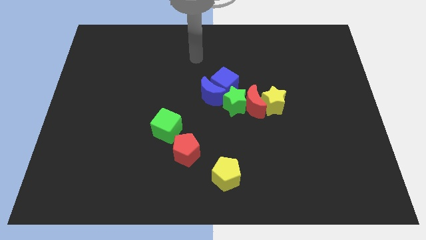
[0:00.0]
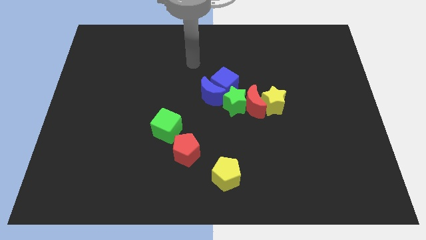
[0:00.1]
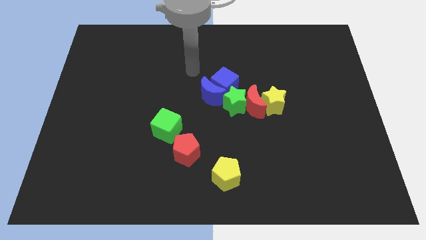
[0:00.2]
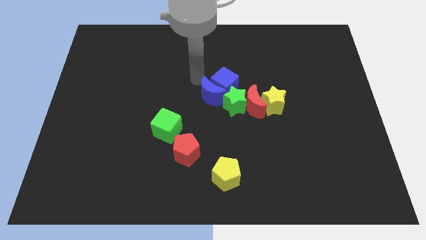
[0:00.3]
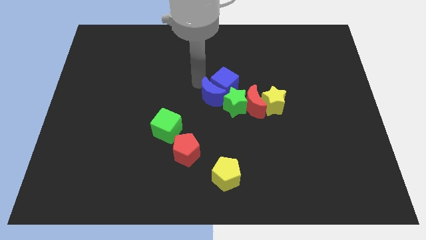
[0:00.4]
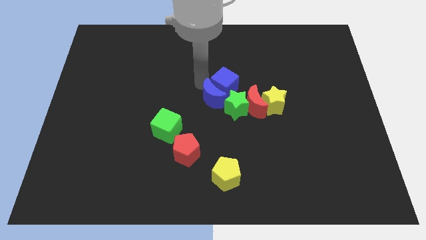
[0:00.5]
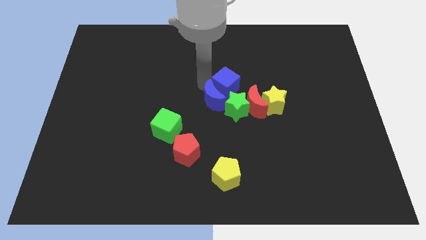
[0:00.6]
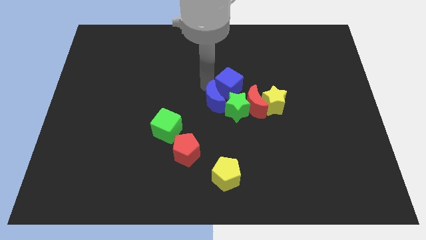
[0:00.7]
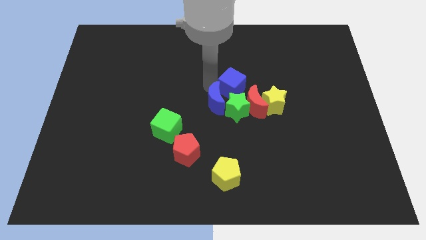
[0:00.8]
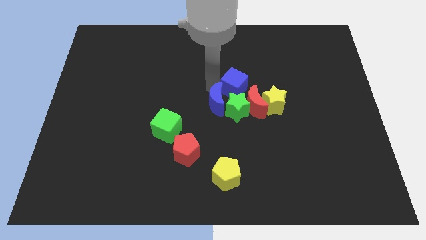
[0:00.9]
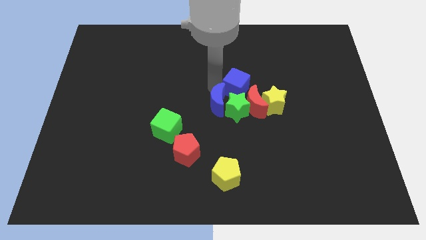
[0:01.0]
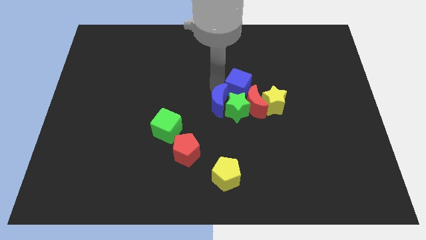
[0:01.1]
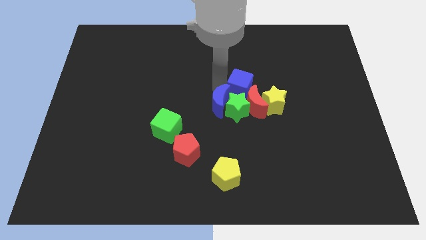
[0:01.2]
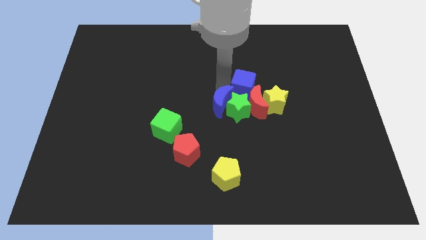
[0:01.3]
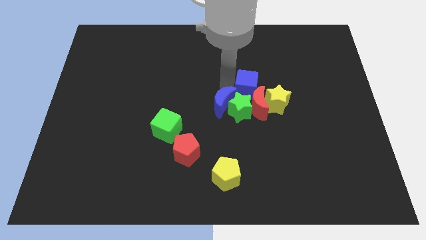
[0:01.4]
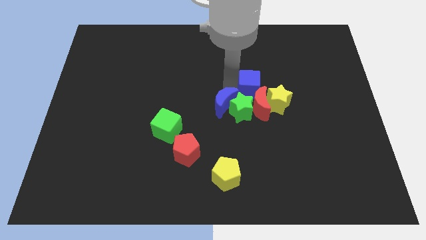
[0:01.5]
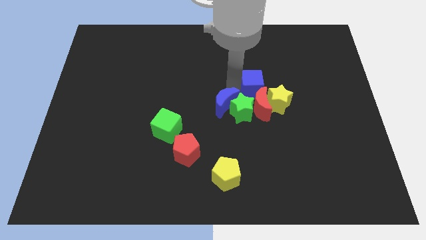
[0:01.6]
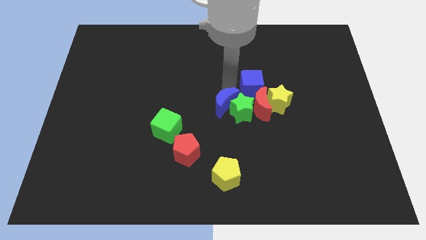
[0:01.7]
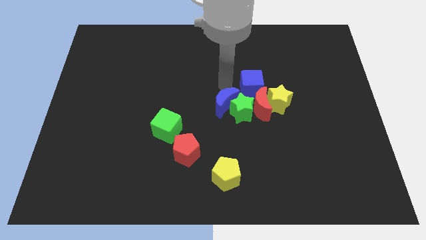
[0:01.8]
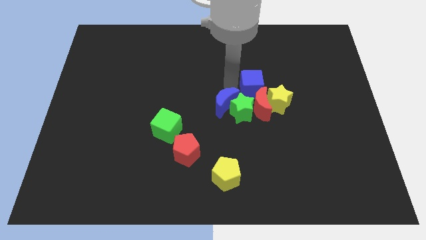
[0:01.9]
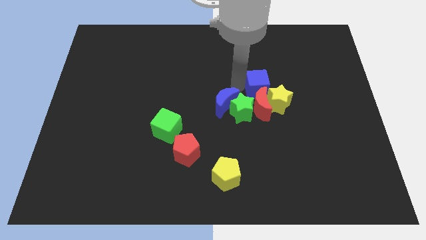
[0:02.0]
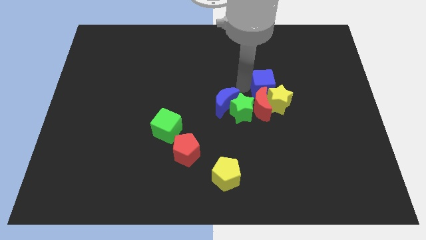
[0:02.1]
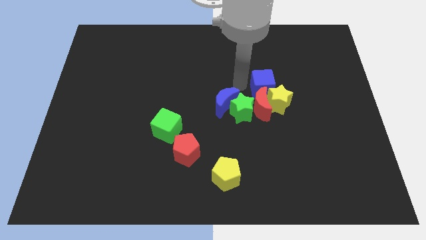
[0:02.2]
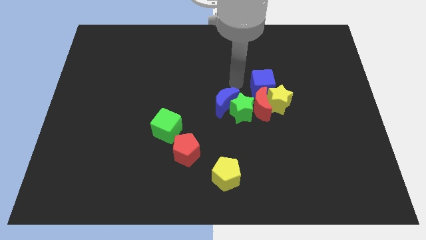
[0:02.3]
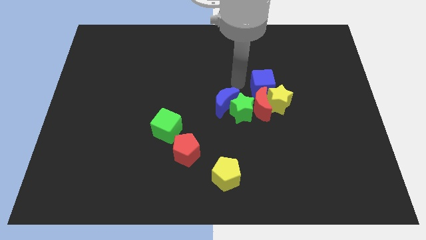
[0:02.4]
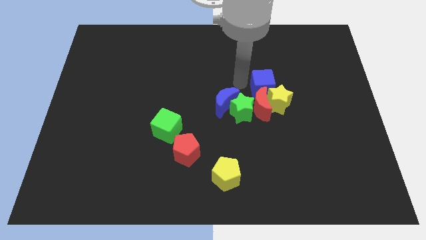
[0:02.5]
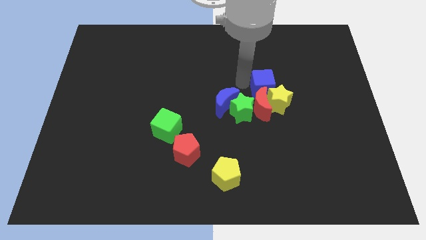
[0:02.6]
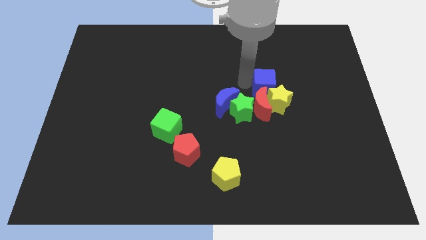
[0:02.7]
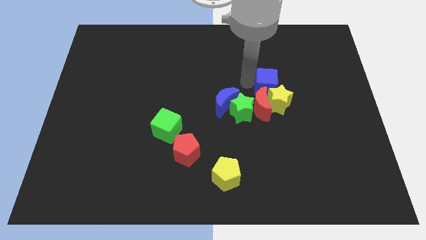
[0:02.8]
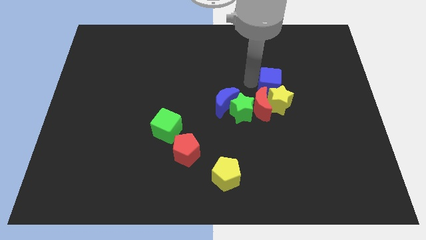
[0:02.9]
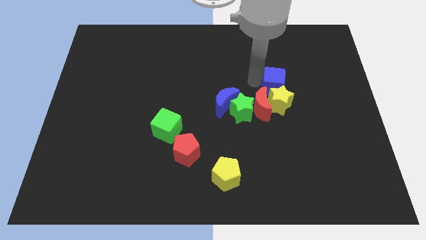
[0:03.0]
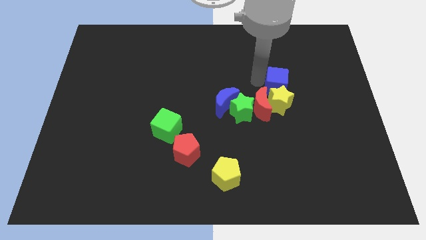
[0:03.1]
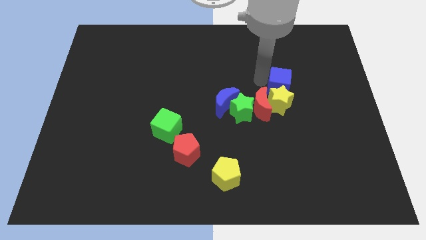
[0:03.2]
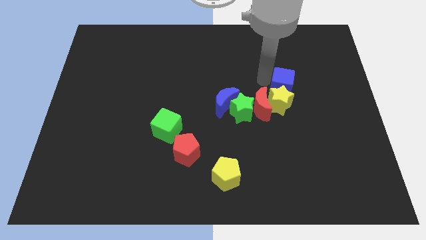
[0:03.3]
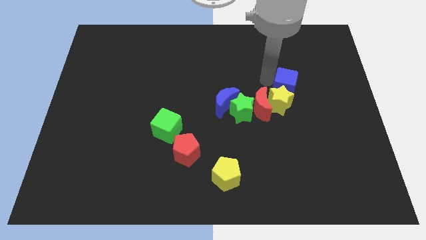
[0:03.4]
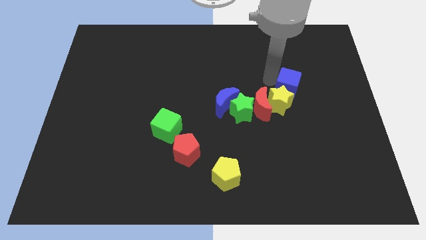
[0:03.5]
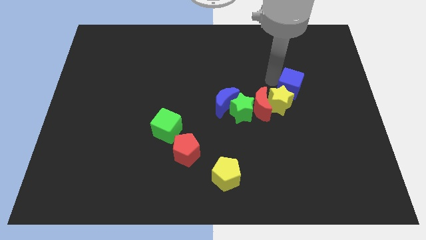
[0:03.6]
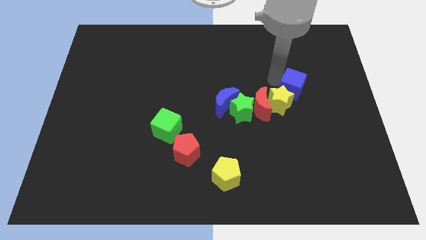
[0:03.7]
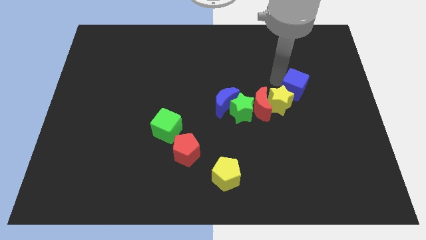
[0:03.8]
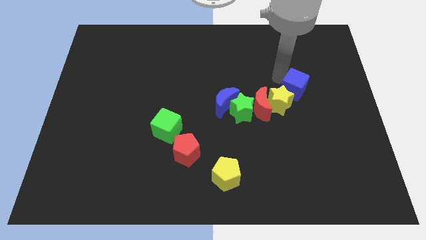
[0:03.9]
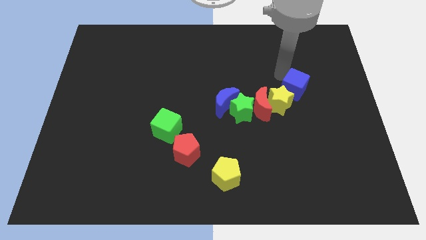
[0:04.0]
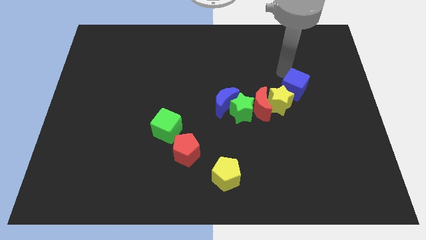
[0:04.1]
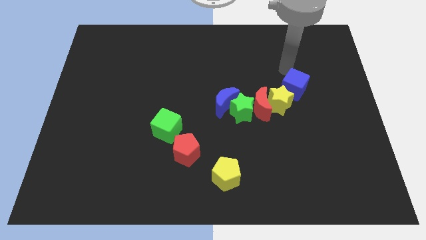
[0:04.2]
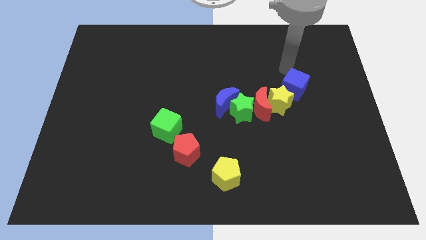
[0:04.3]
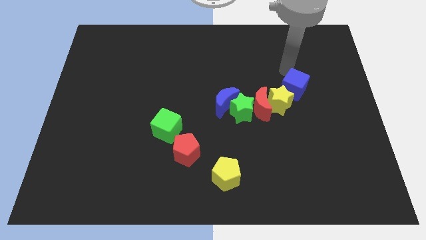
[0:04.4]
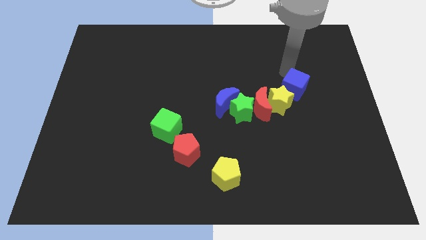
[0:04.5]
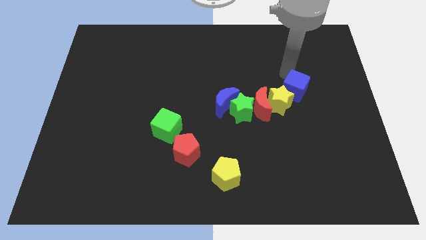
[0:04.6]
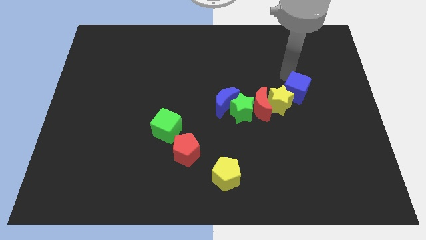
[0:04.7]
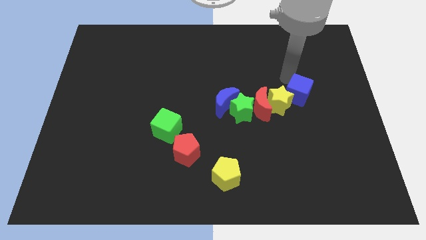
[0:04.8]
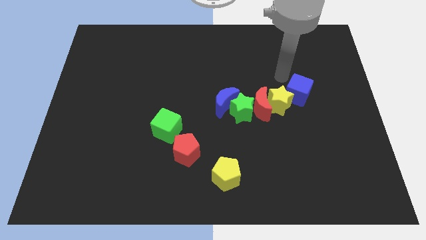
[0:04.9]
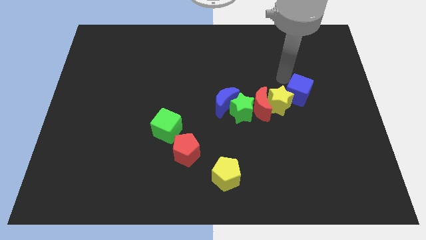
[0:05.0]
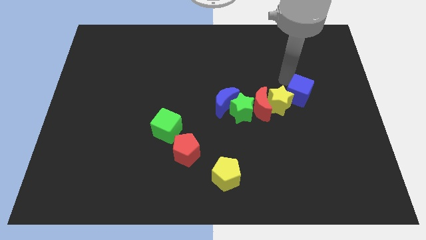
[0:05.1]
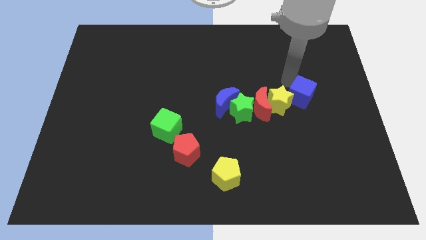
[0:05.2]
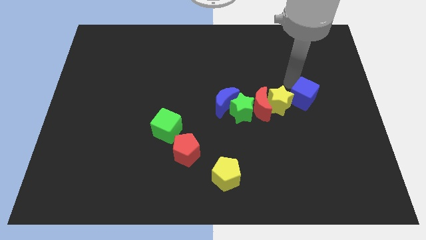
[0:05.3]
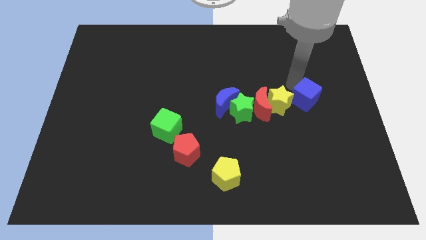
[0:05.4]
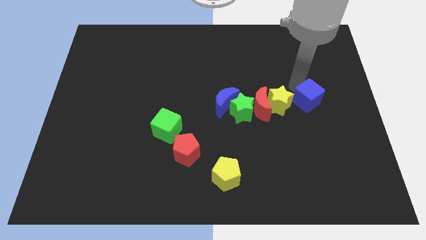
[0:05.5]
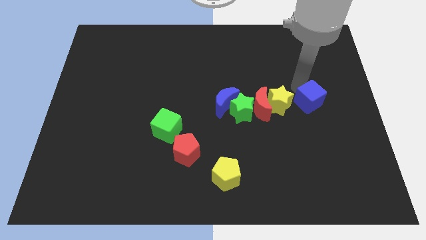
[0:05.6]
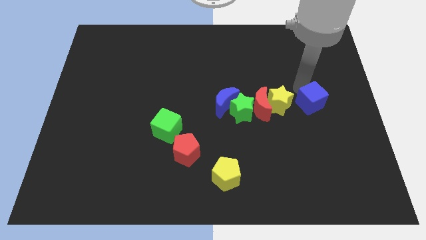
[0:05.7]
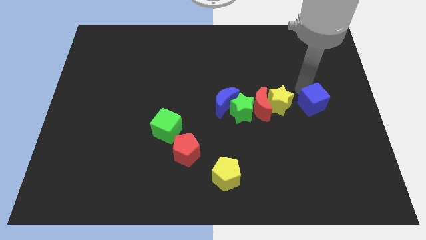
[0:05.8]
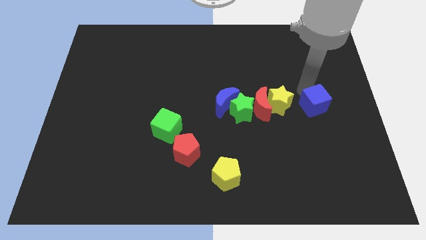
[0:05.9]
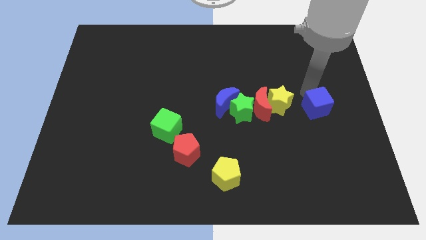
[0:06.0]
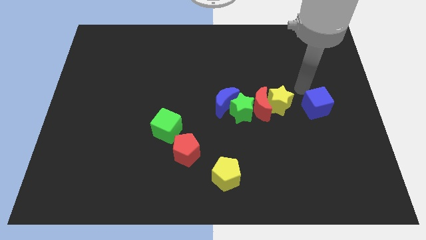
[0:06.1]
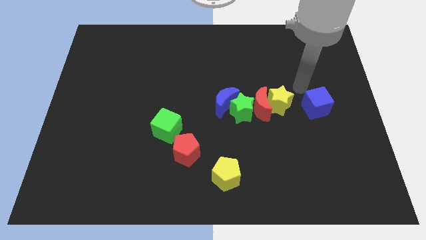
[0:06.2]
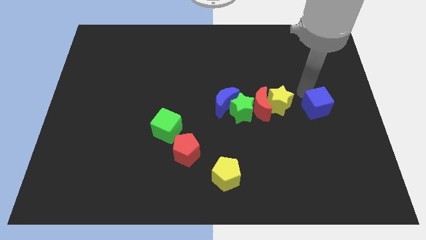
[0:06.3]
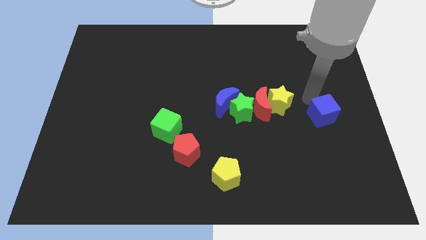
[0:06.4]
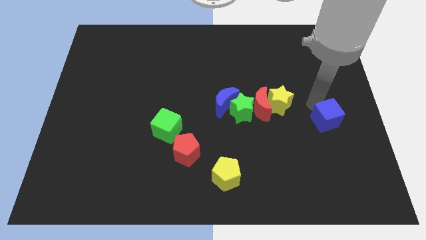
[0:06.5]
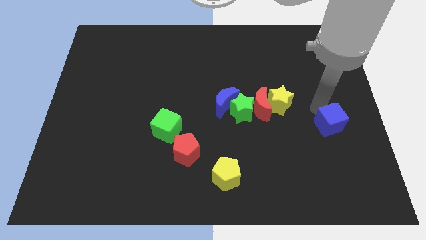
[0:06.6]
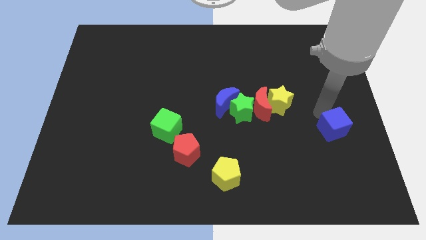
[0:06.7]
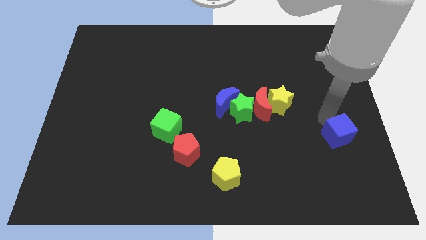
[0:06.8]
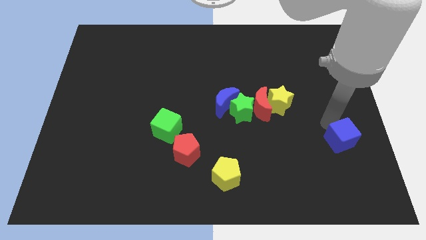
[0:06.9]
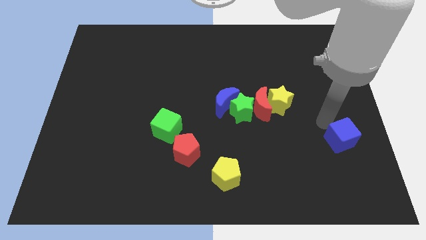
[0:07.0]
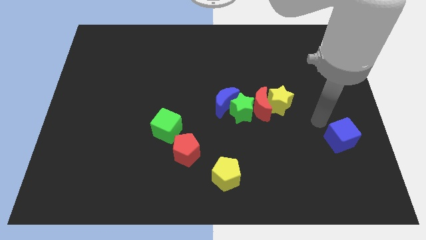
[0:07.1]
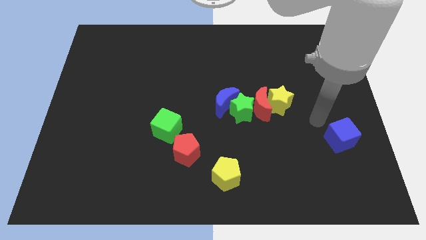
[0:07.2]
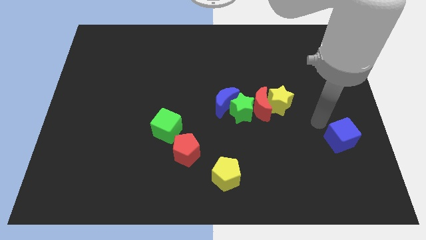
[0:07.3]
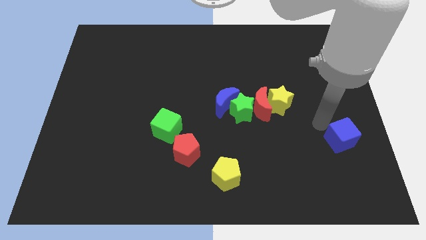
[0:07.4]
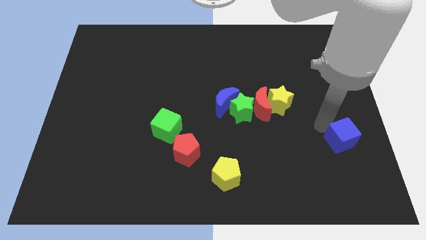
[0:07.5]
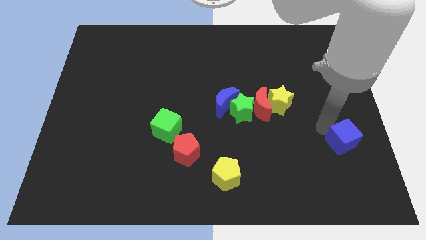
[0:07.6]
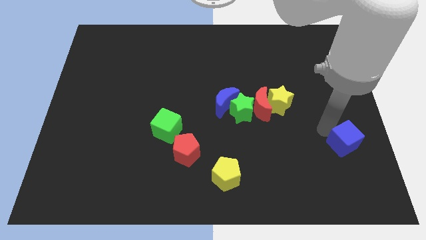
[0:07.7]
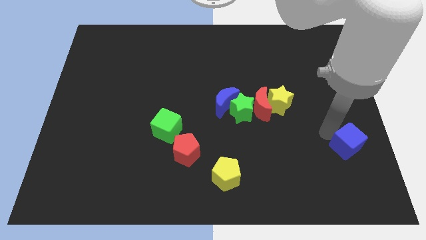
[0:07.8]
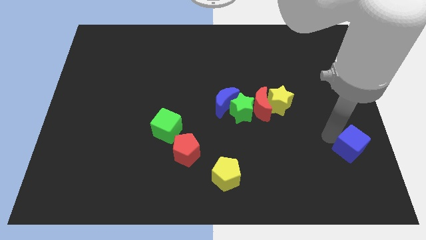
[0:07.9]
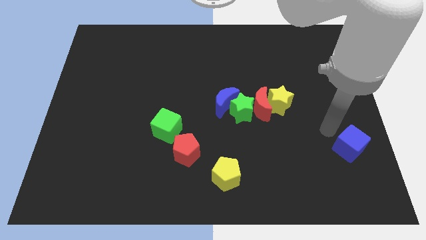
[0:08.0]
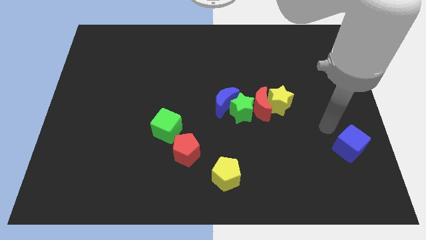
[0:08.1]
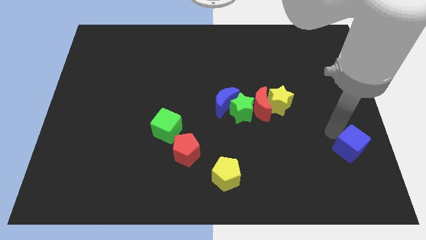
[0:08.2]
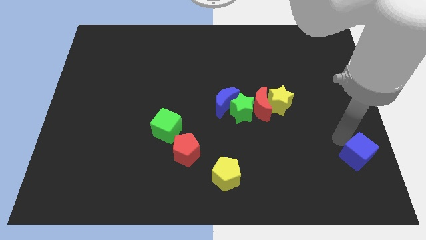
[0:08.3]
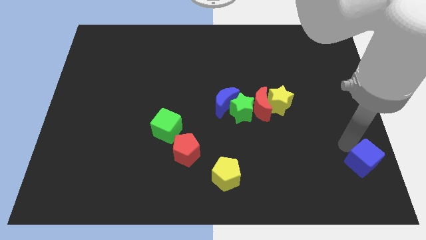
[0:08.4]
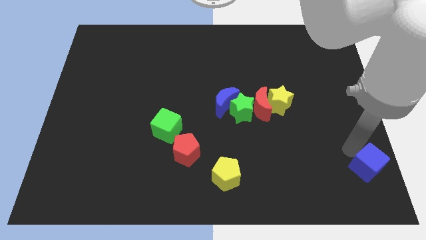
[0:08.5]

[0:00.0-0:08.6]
move the blue cube to the bottom right of the board
